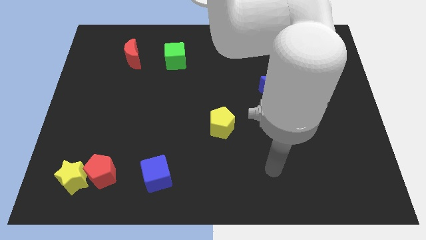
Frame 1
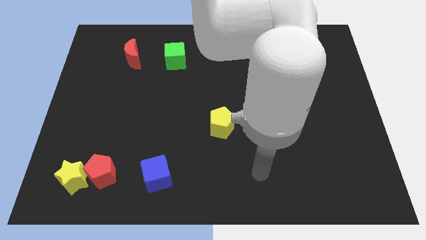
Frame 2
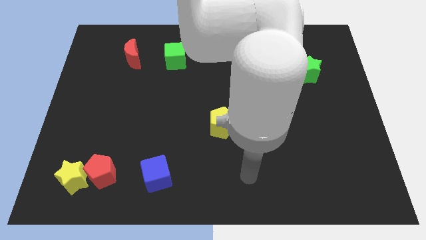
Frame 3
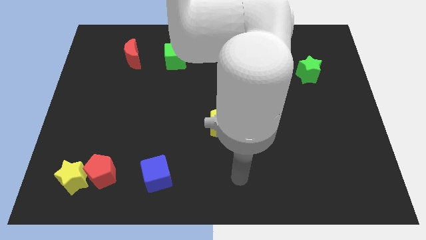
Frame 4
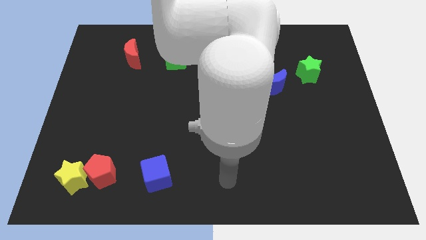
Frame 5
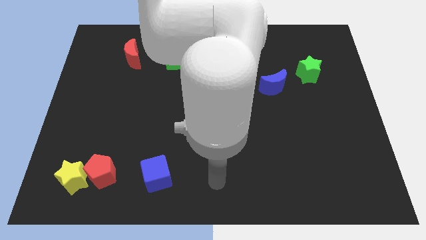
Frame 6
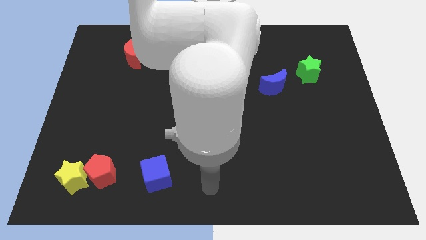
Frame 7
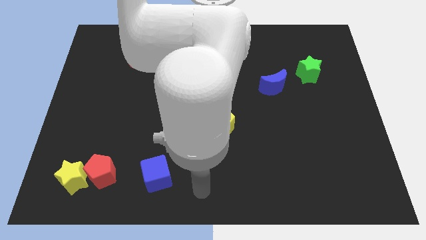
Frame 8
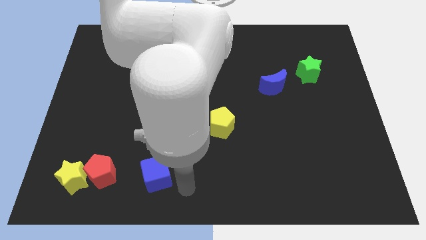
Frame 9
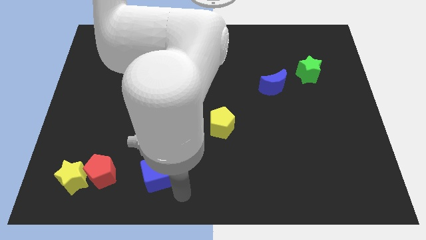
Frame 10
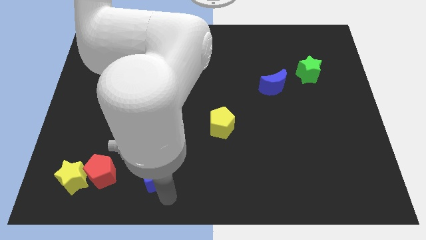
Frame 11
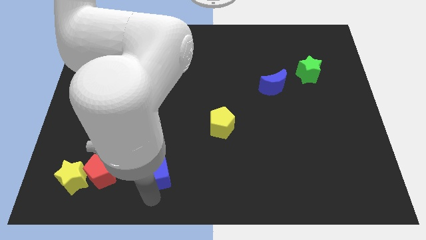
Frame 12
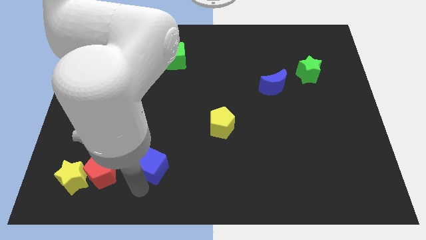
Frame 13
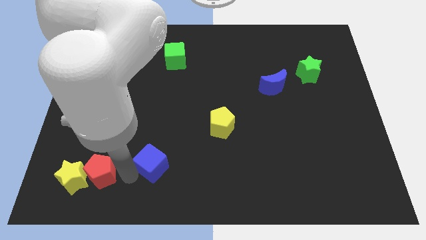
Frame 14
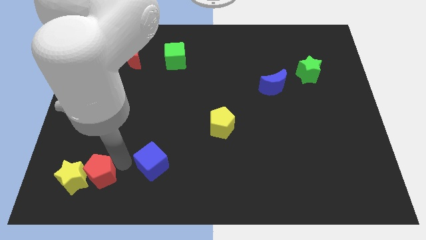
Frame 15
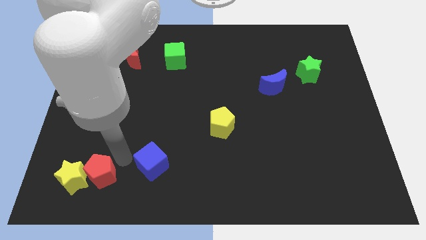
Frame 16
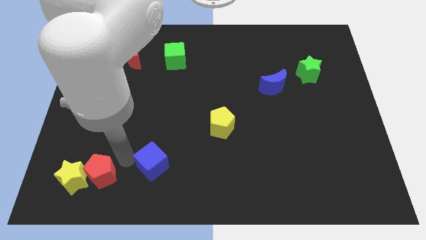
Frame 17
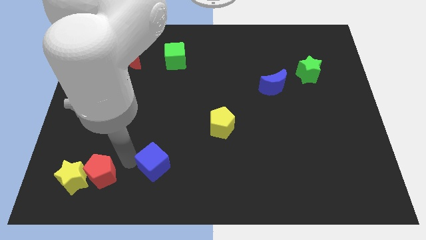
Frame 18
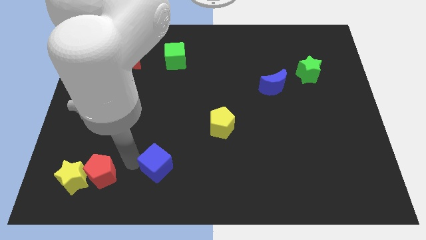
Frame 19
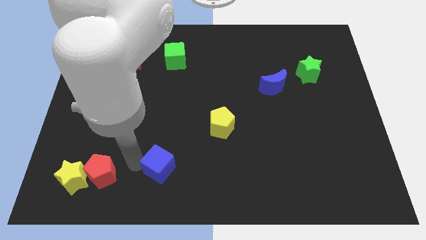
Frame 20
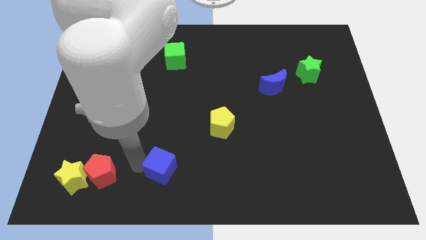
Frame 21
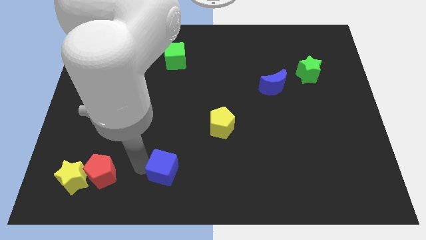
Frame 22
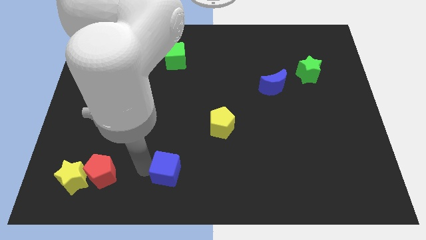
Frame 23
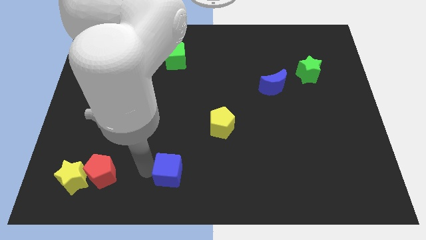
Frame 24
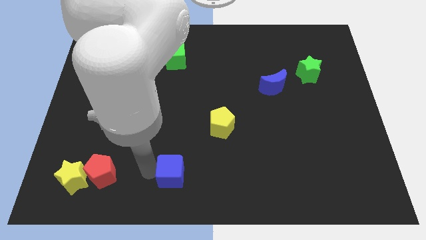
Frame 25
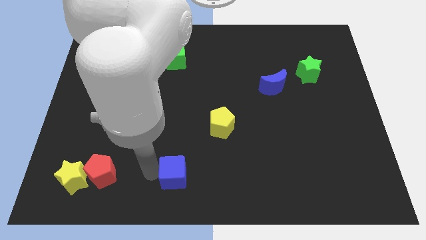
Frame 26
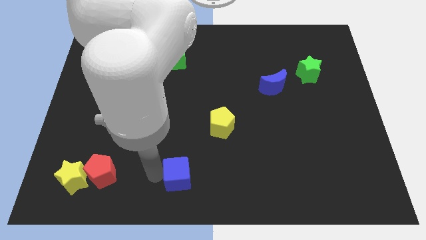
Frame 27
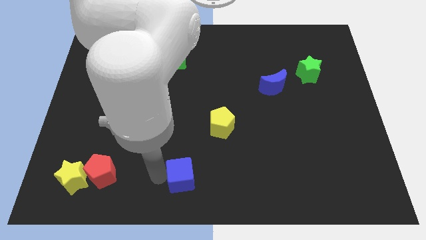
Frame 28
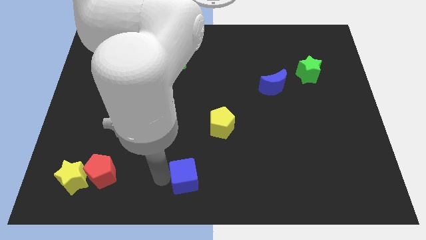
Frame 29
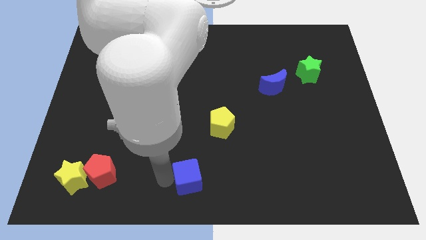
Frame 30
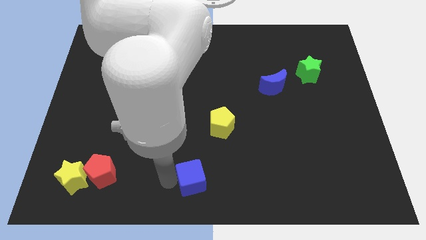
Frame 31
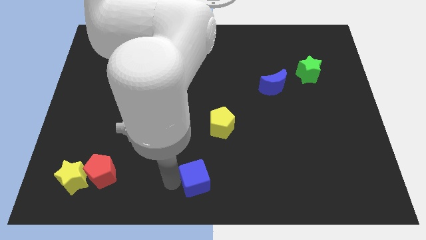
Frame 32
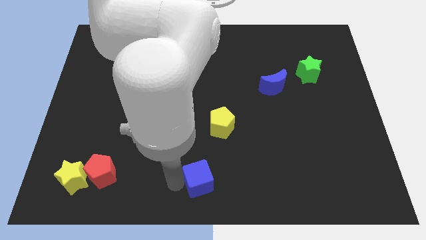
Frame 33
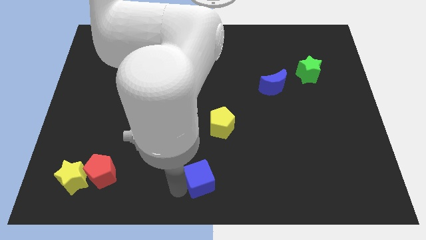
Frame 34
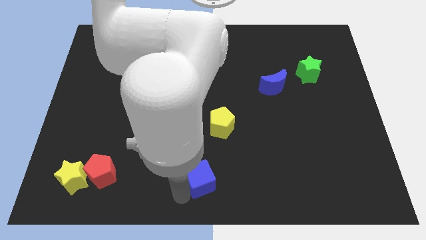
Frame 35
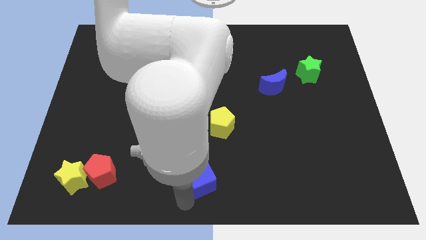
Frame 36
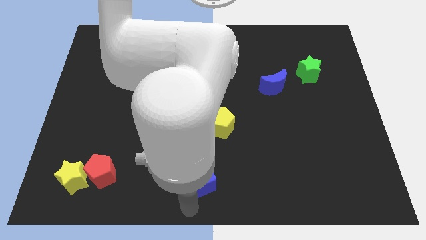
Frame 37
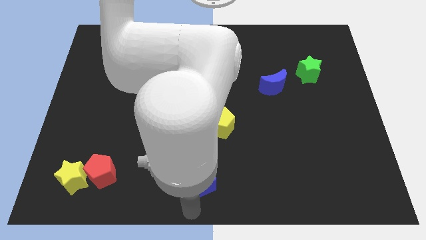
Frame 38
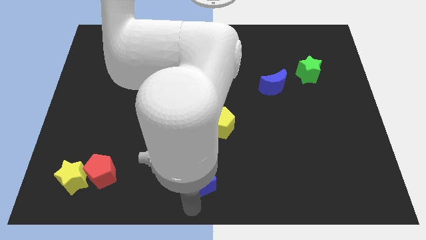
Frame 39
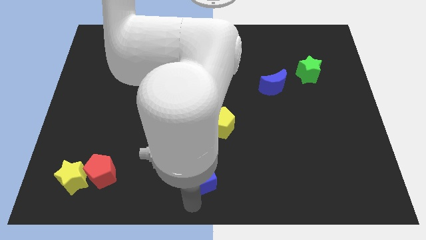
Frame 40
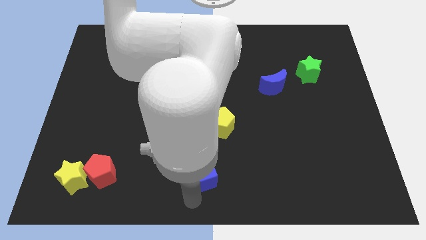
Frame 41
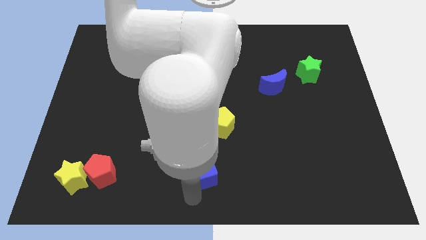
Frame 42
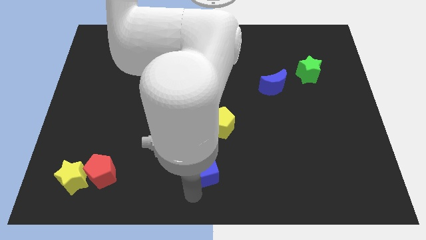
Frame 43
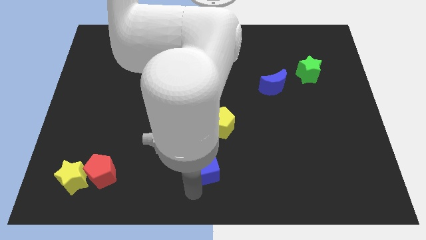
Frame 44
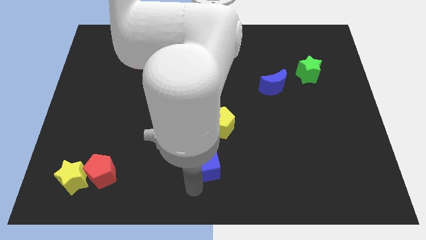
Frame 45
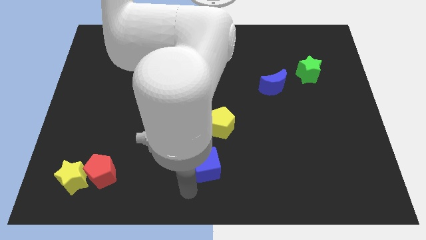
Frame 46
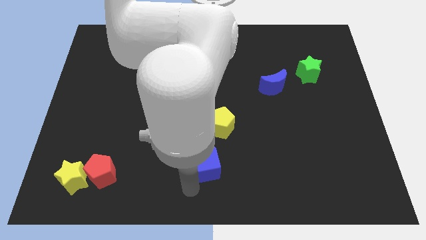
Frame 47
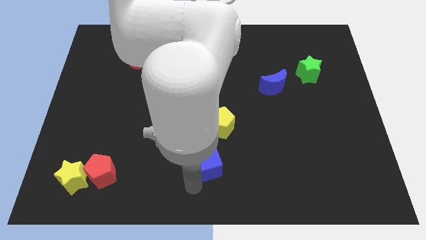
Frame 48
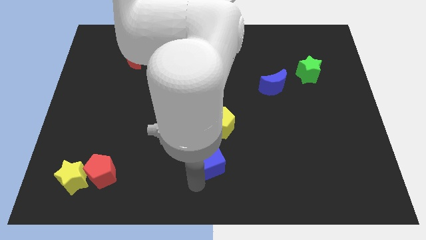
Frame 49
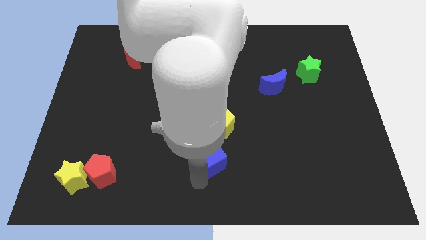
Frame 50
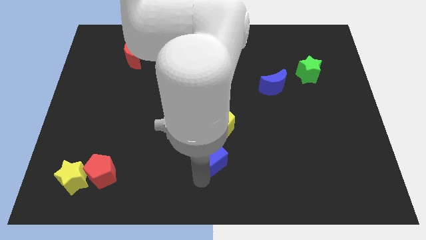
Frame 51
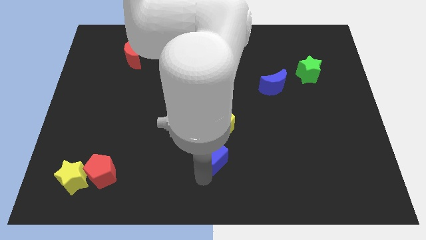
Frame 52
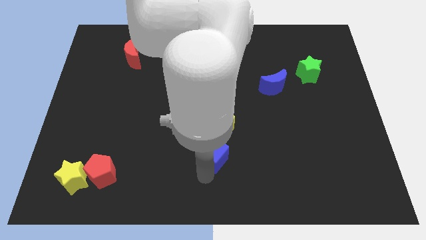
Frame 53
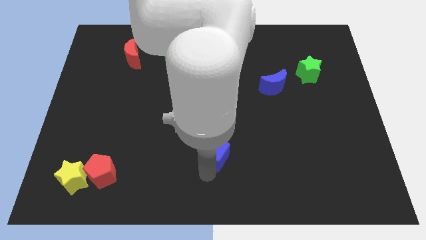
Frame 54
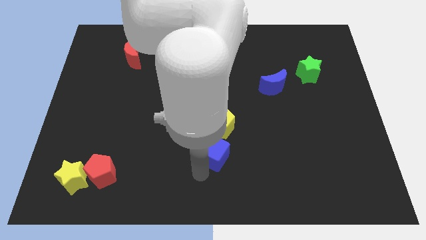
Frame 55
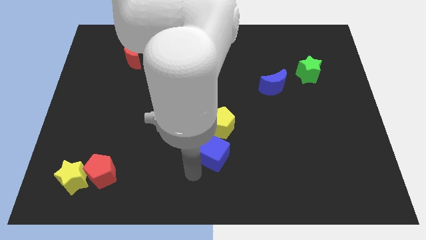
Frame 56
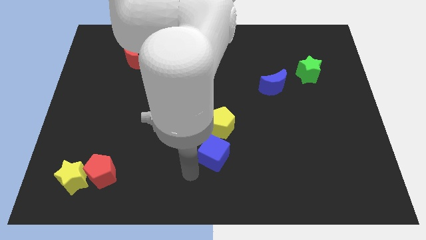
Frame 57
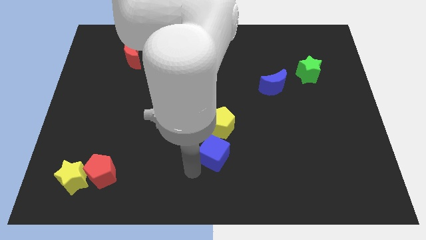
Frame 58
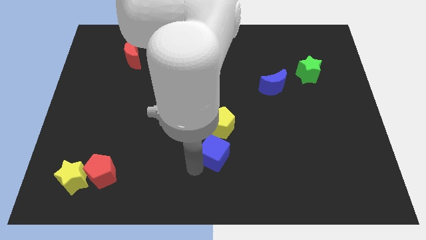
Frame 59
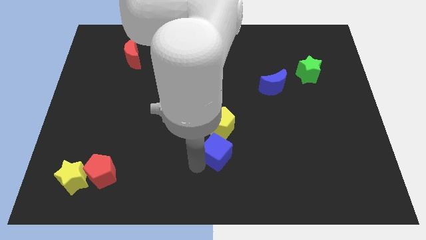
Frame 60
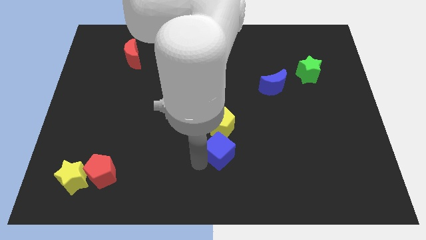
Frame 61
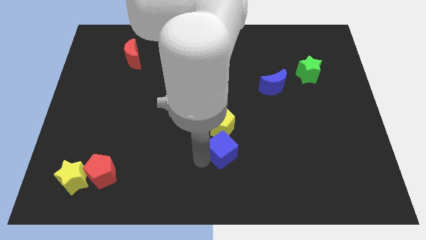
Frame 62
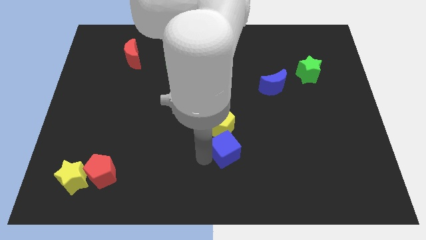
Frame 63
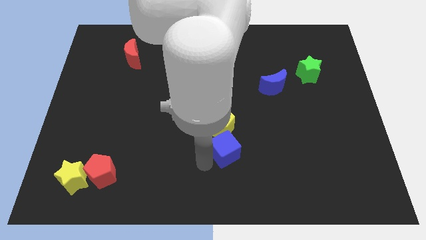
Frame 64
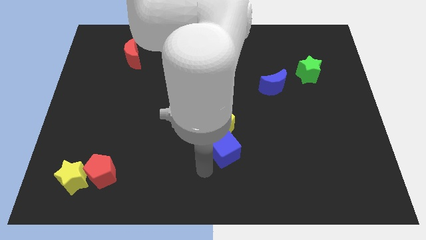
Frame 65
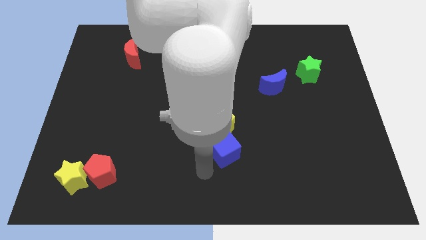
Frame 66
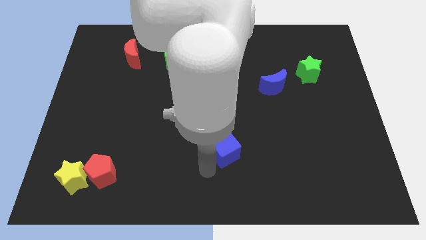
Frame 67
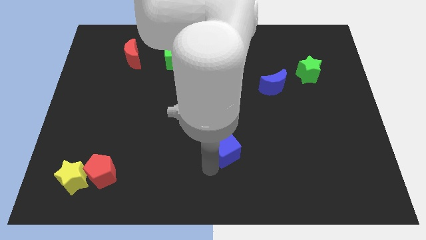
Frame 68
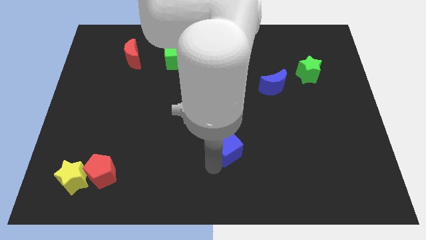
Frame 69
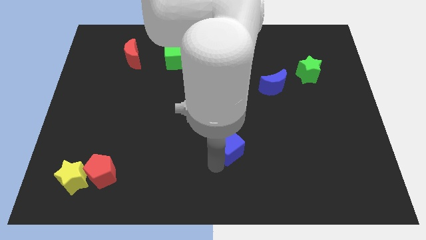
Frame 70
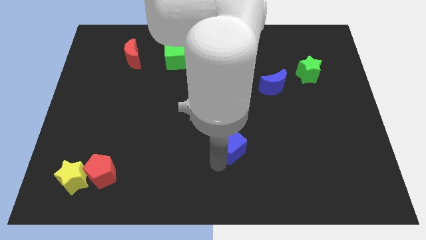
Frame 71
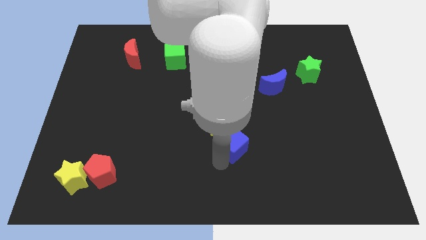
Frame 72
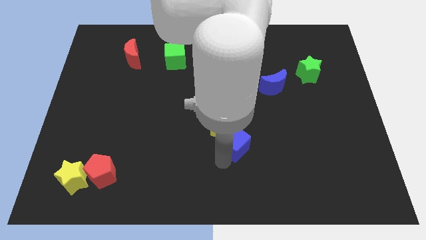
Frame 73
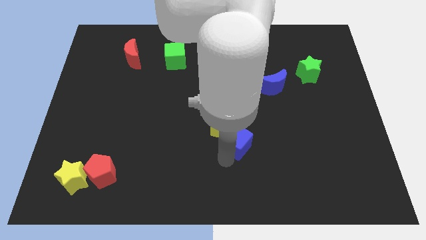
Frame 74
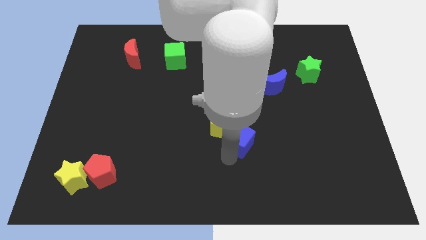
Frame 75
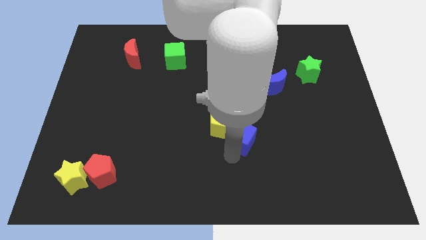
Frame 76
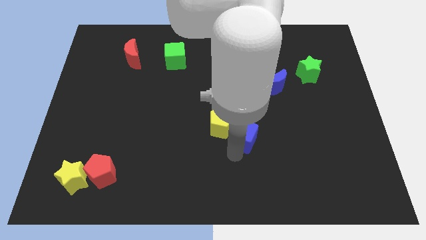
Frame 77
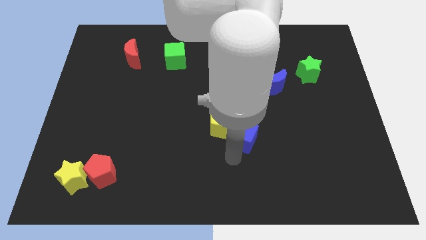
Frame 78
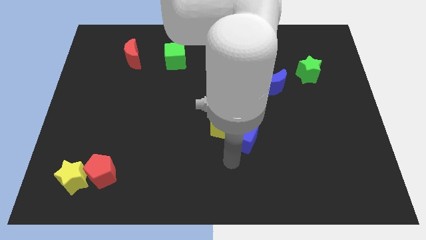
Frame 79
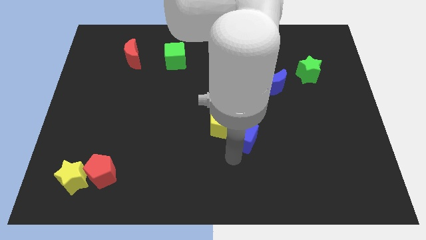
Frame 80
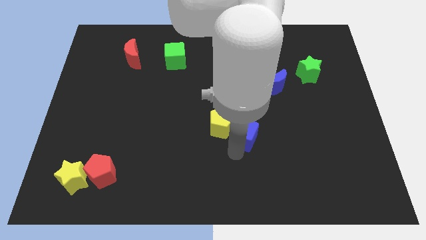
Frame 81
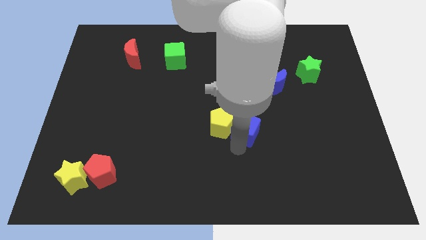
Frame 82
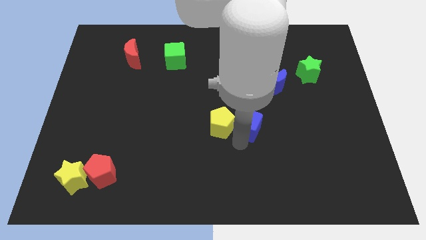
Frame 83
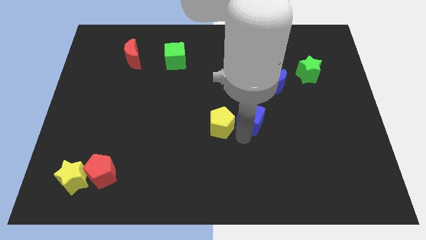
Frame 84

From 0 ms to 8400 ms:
put the blue cube to the bottom left of the blue moon
